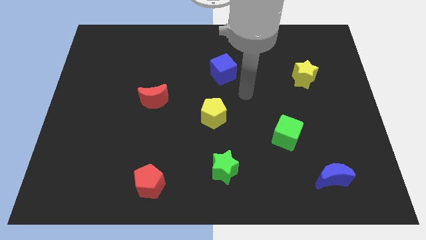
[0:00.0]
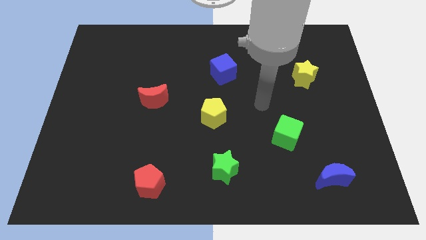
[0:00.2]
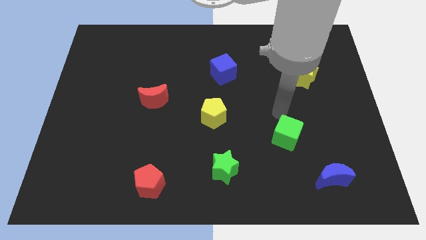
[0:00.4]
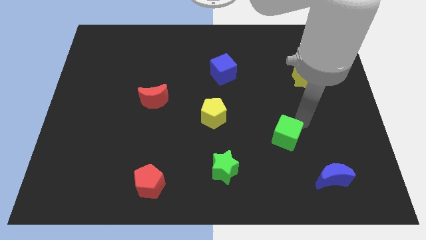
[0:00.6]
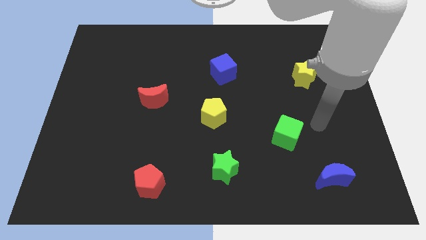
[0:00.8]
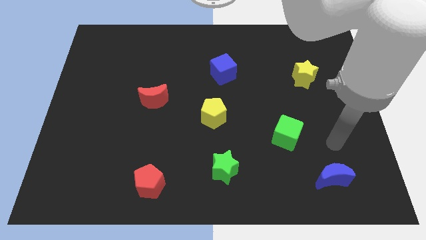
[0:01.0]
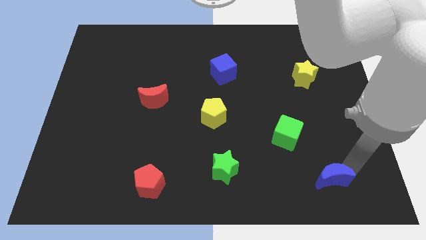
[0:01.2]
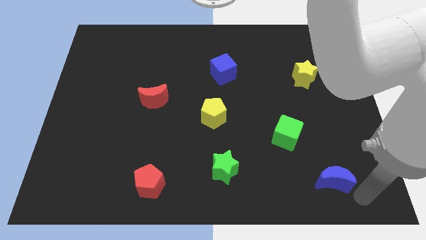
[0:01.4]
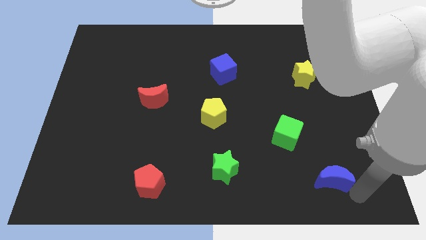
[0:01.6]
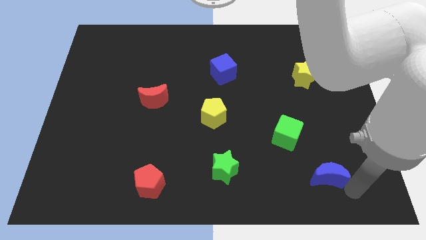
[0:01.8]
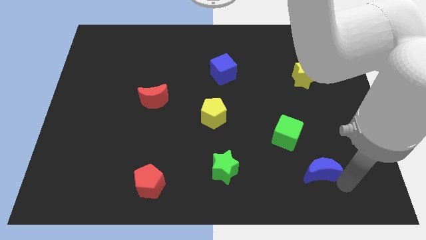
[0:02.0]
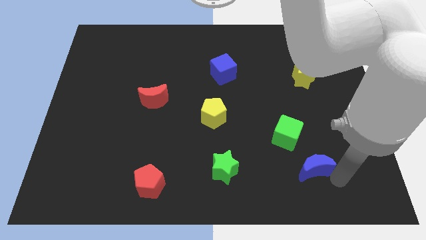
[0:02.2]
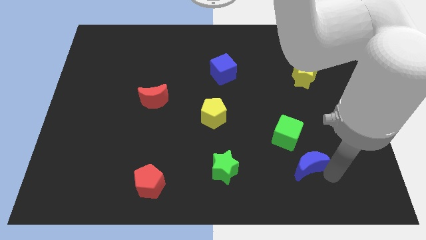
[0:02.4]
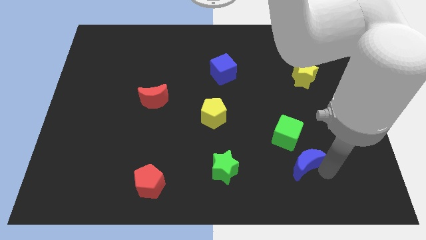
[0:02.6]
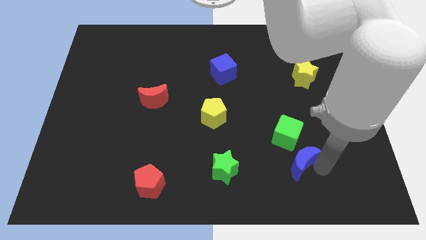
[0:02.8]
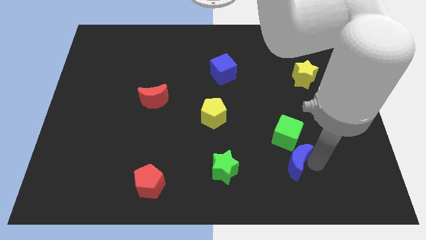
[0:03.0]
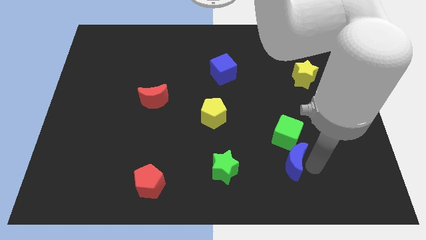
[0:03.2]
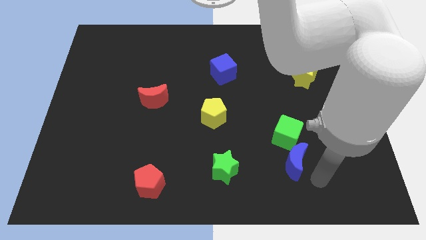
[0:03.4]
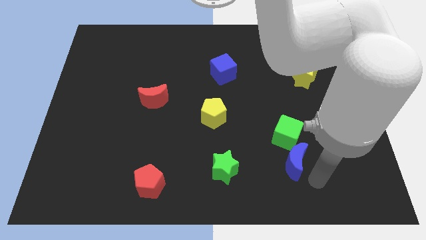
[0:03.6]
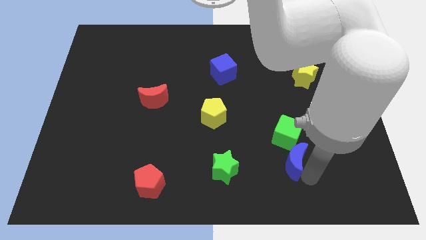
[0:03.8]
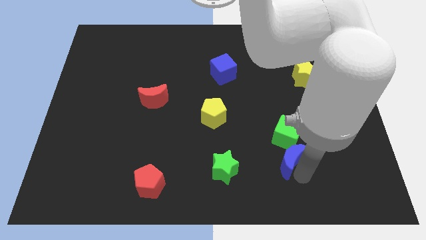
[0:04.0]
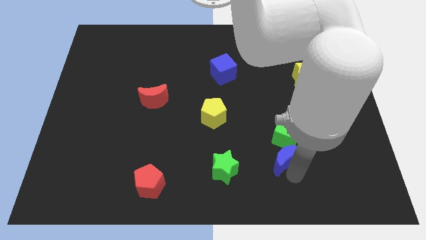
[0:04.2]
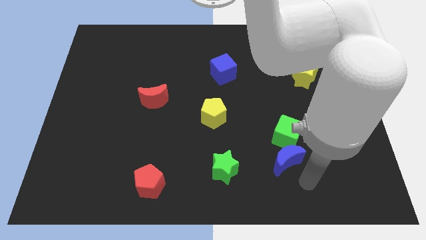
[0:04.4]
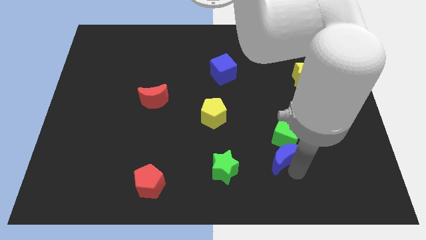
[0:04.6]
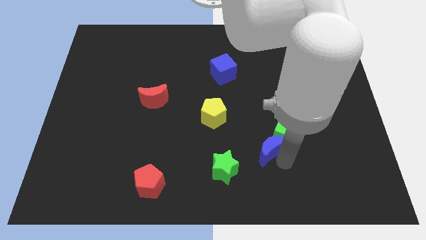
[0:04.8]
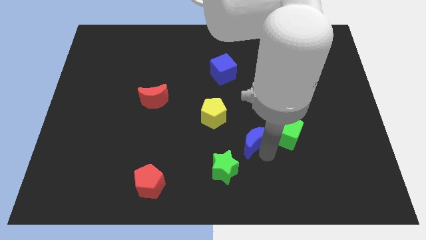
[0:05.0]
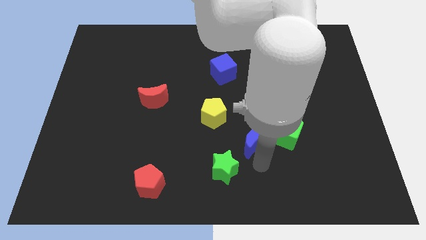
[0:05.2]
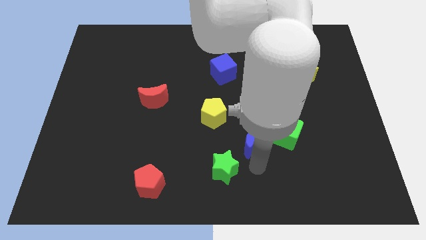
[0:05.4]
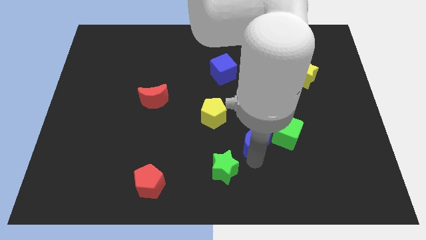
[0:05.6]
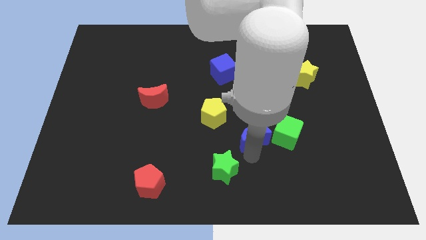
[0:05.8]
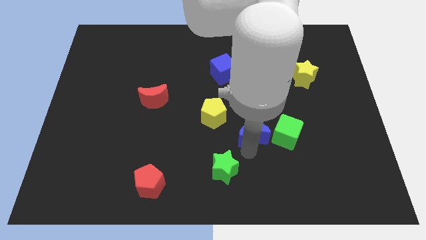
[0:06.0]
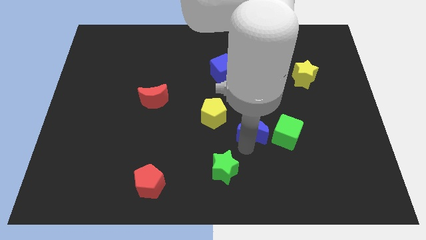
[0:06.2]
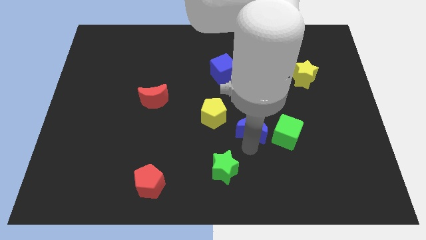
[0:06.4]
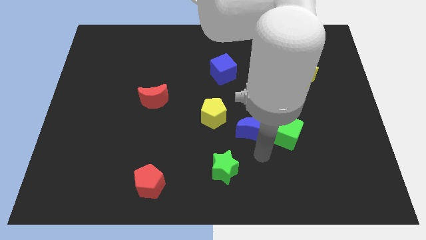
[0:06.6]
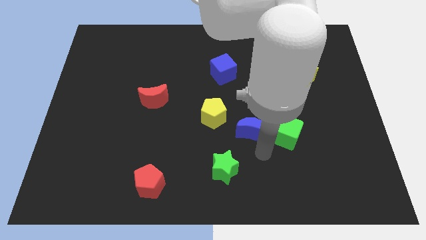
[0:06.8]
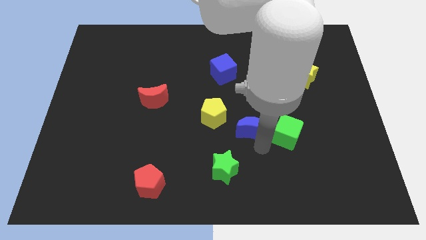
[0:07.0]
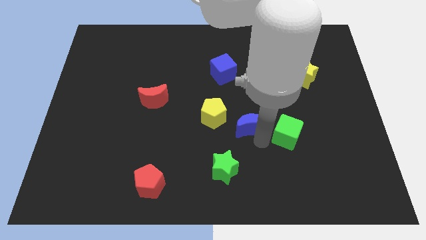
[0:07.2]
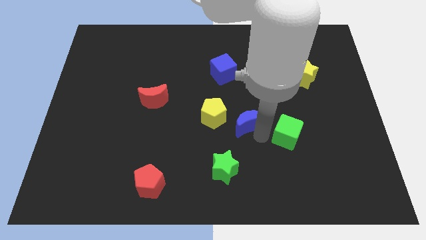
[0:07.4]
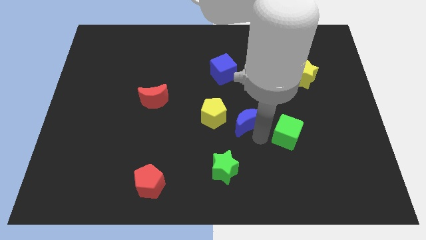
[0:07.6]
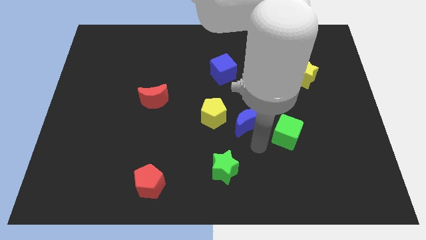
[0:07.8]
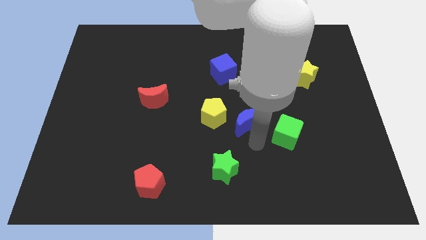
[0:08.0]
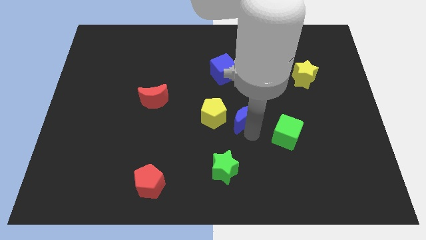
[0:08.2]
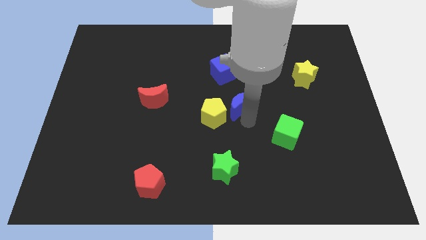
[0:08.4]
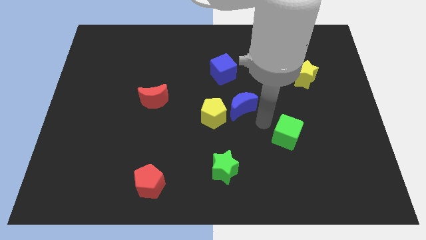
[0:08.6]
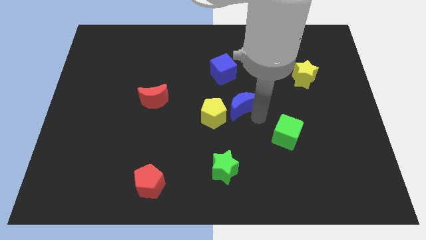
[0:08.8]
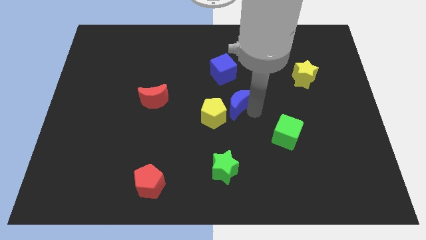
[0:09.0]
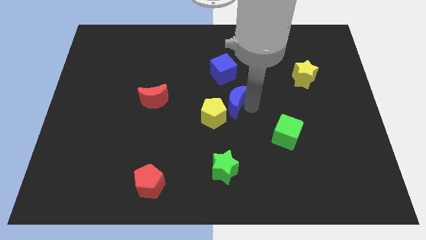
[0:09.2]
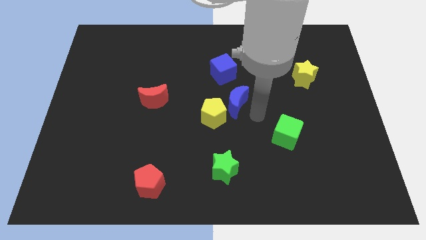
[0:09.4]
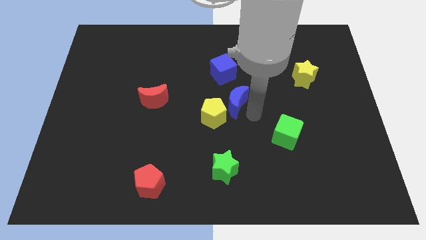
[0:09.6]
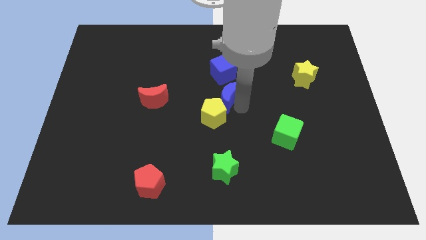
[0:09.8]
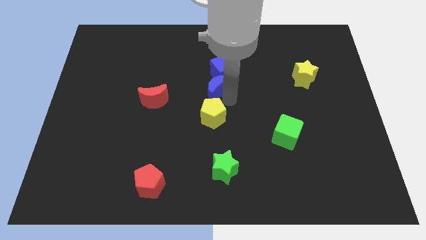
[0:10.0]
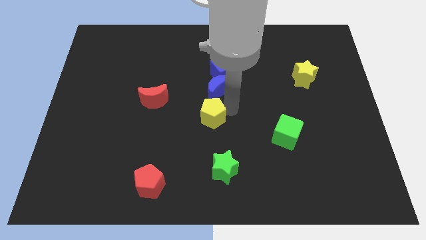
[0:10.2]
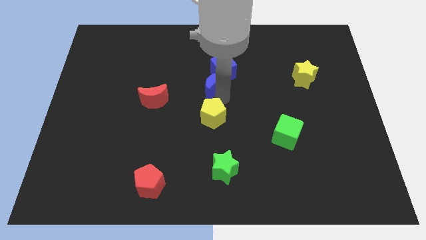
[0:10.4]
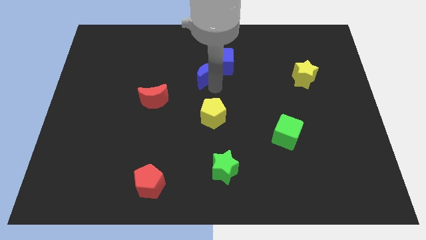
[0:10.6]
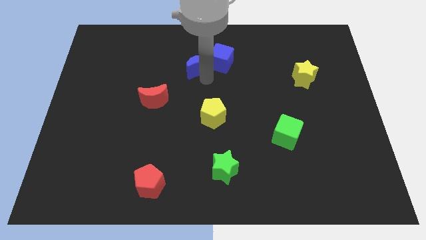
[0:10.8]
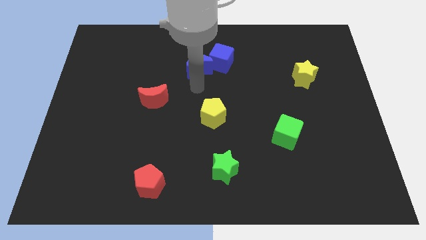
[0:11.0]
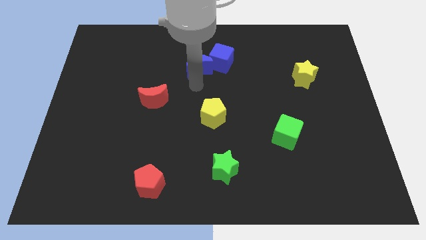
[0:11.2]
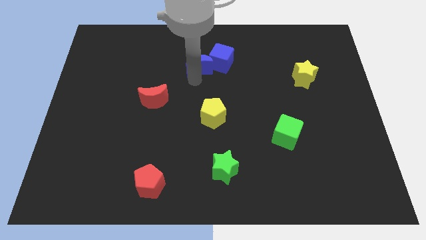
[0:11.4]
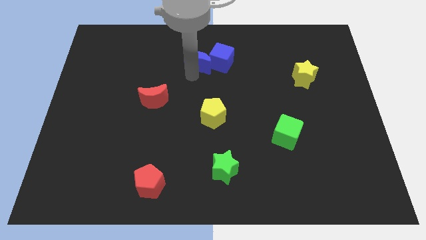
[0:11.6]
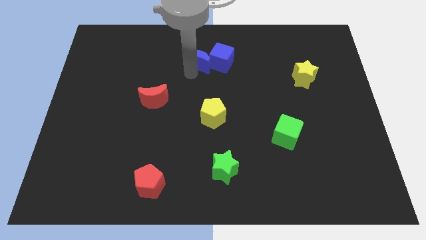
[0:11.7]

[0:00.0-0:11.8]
put the blue moon to the top left of the blue cube

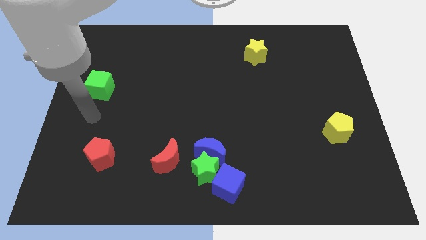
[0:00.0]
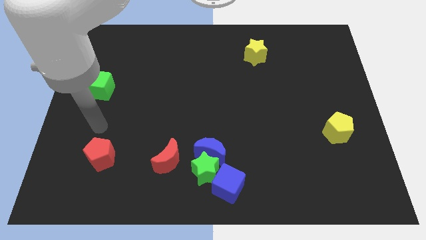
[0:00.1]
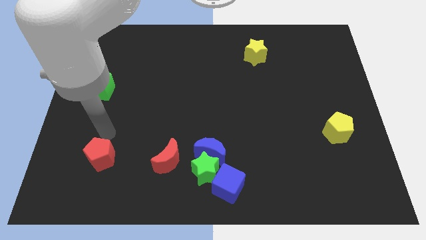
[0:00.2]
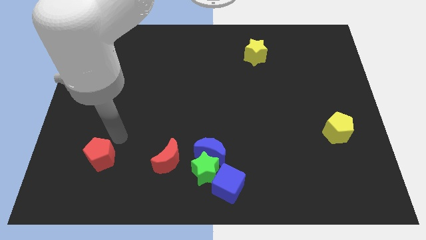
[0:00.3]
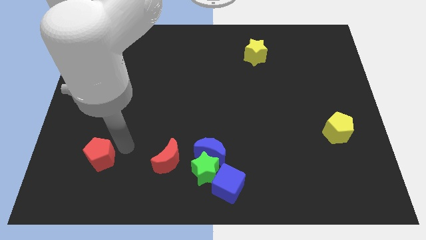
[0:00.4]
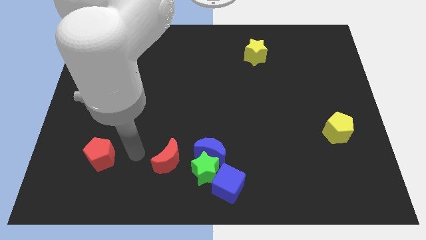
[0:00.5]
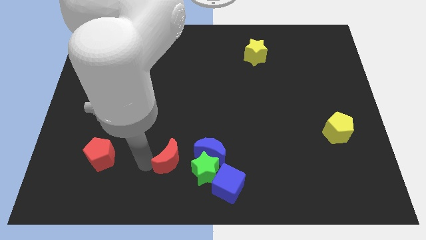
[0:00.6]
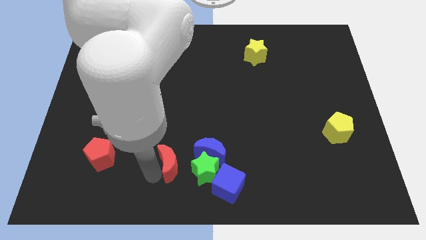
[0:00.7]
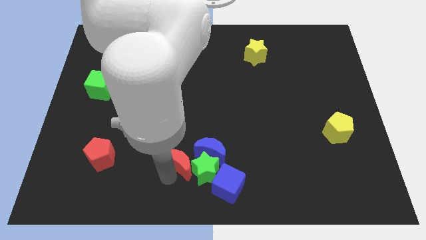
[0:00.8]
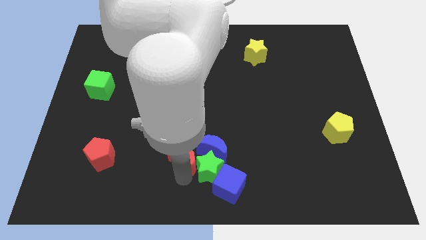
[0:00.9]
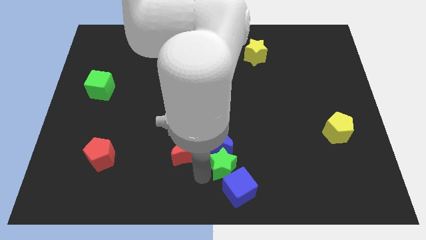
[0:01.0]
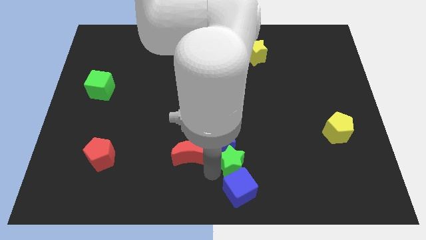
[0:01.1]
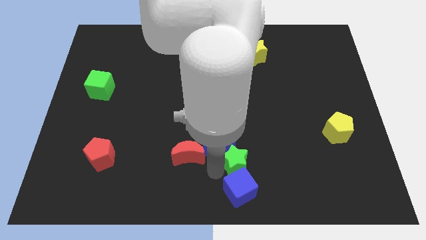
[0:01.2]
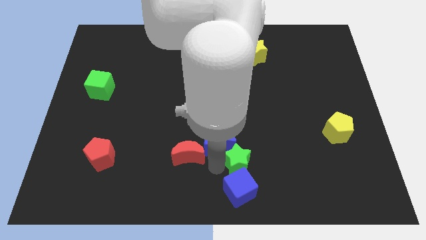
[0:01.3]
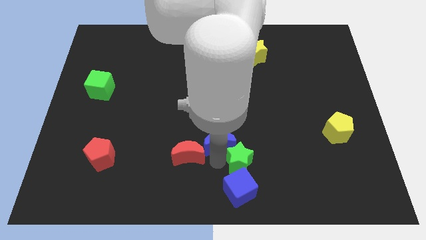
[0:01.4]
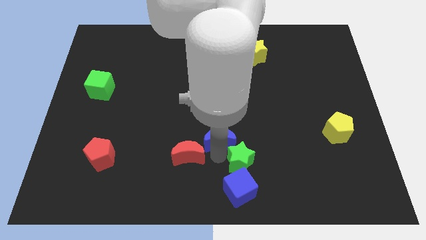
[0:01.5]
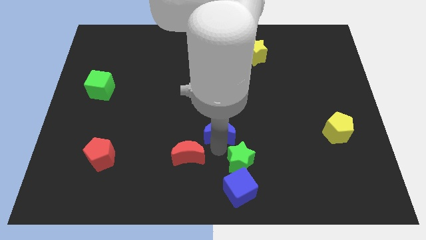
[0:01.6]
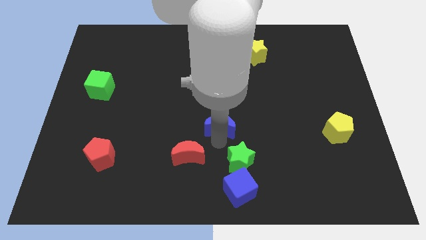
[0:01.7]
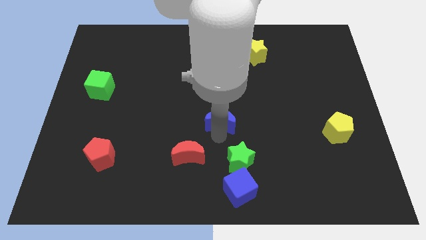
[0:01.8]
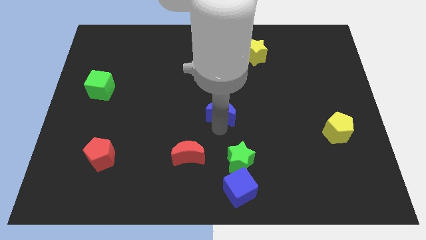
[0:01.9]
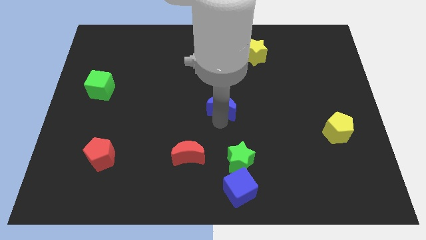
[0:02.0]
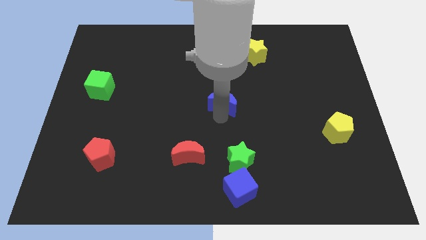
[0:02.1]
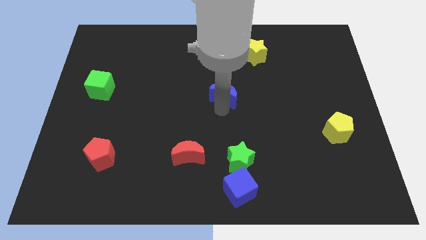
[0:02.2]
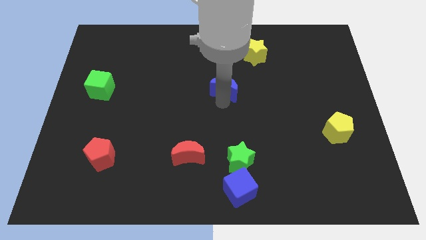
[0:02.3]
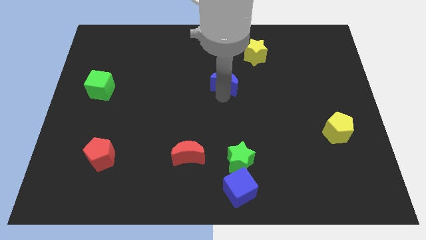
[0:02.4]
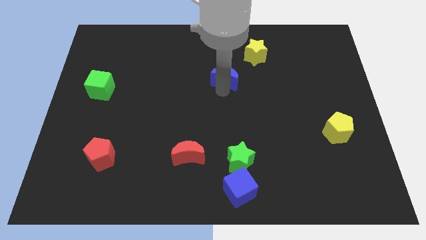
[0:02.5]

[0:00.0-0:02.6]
put the blue moon to the bottom left of the yellow star
